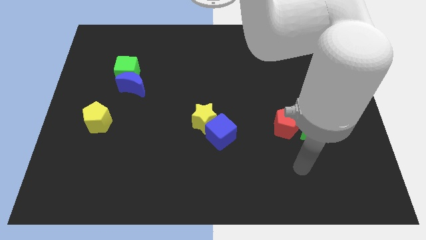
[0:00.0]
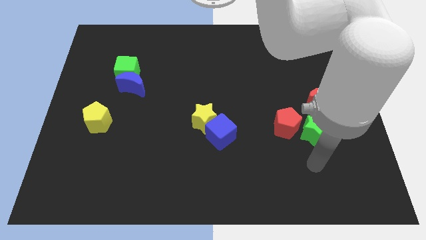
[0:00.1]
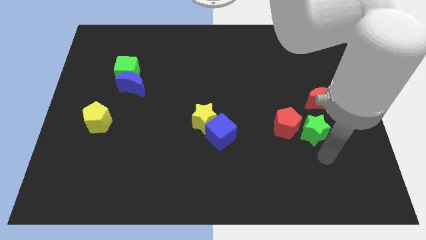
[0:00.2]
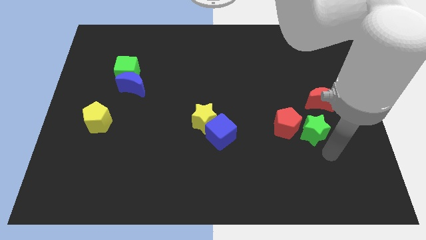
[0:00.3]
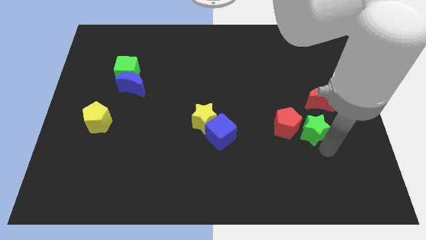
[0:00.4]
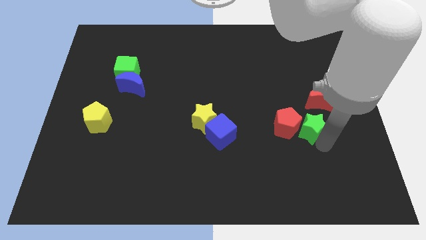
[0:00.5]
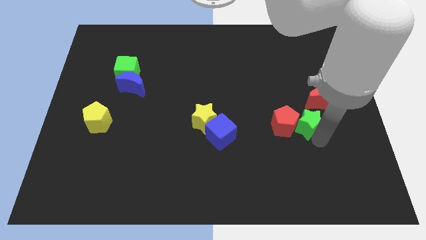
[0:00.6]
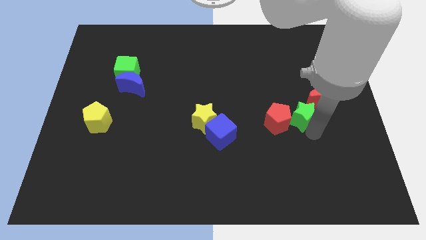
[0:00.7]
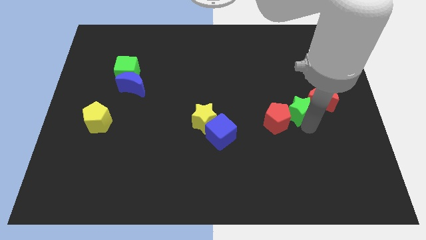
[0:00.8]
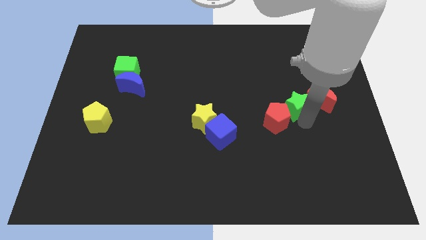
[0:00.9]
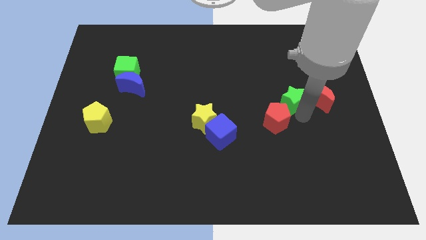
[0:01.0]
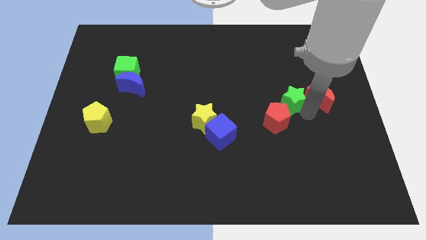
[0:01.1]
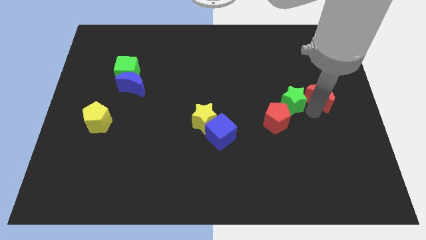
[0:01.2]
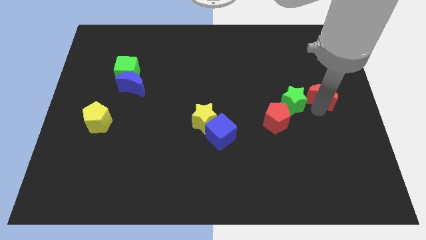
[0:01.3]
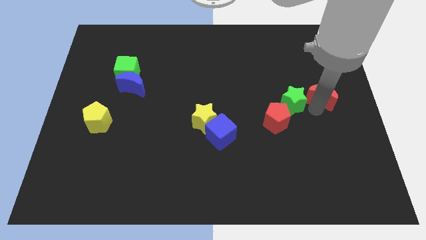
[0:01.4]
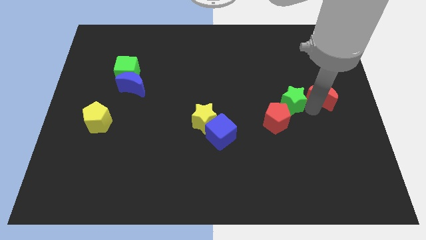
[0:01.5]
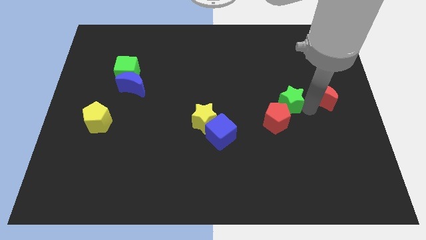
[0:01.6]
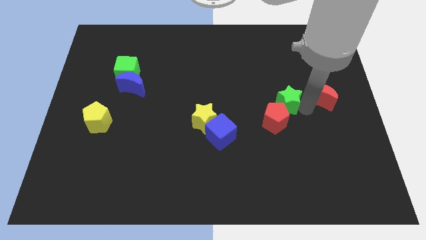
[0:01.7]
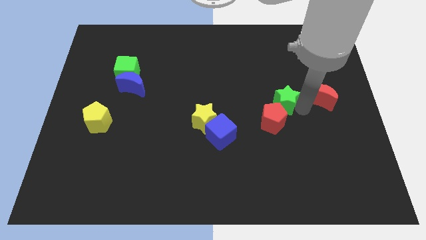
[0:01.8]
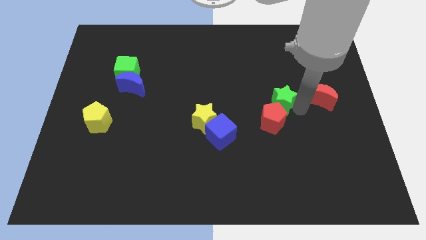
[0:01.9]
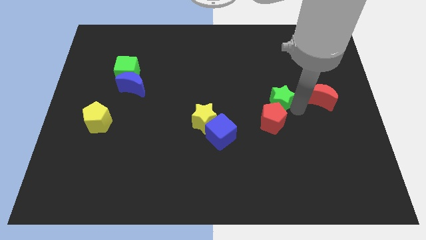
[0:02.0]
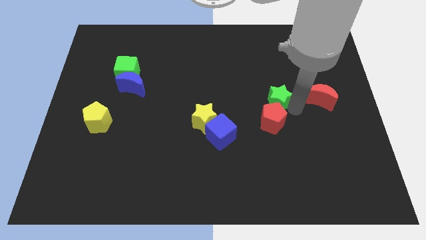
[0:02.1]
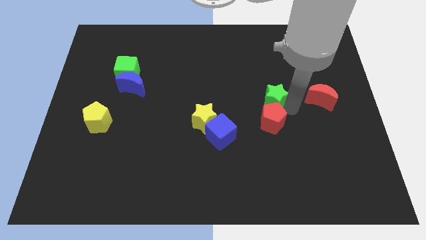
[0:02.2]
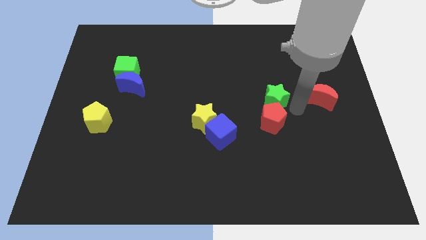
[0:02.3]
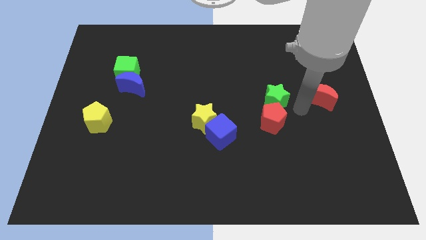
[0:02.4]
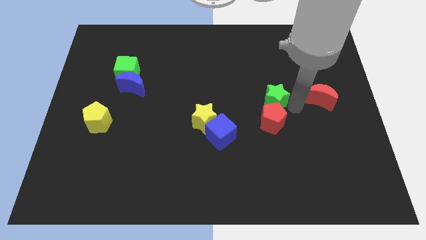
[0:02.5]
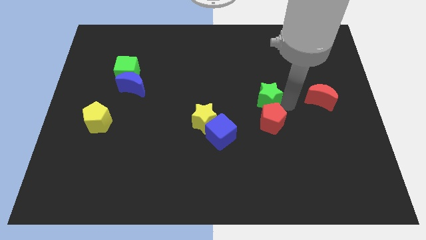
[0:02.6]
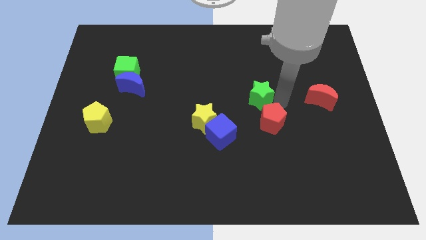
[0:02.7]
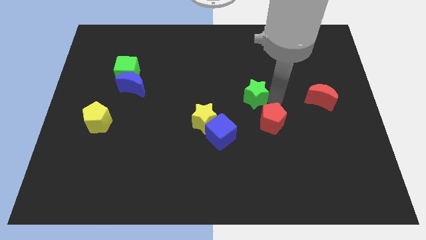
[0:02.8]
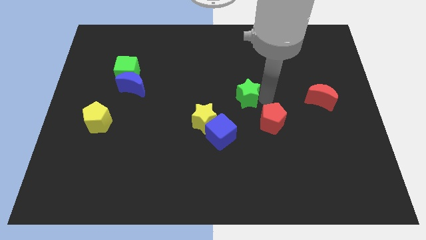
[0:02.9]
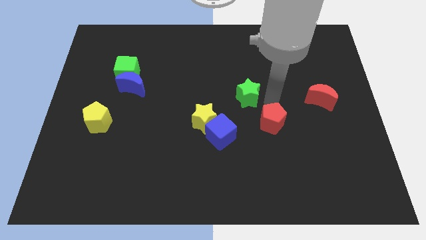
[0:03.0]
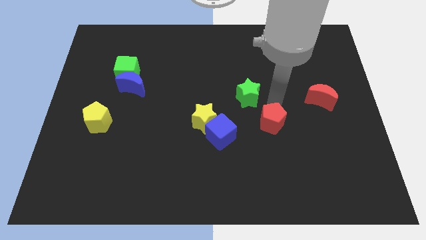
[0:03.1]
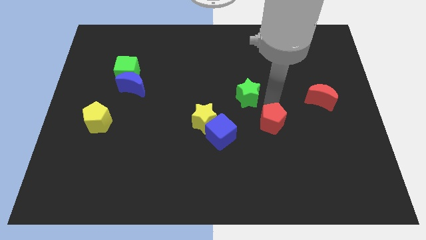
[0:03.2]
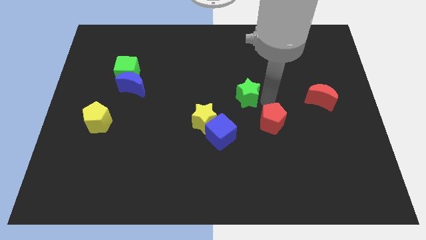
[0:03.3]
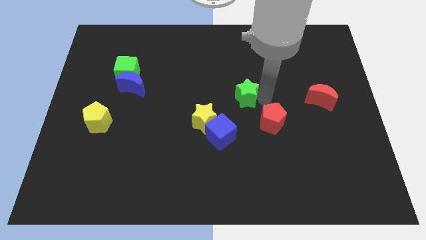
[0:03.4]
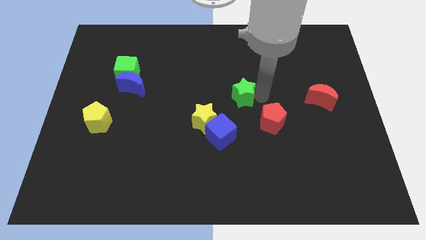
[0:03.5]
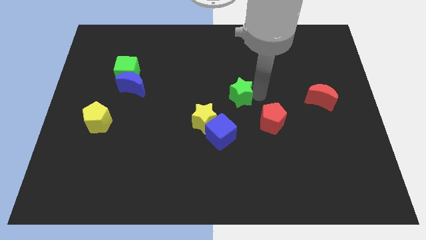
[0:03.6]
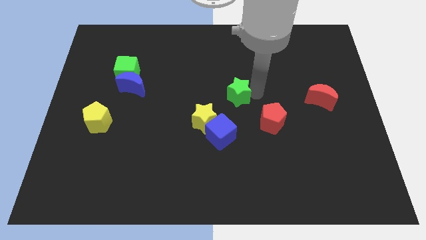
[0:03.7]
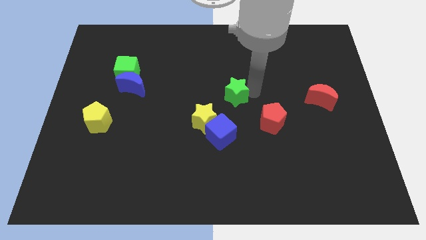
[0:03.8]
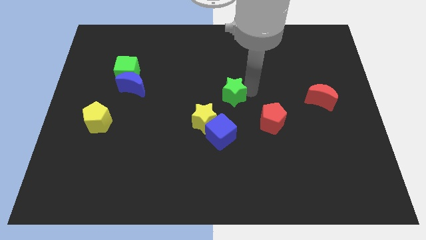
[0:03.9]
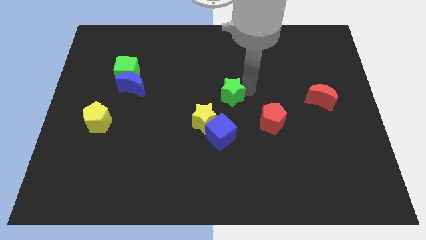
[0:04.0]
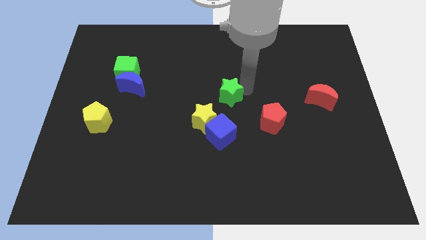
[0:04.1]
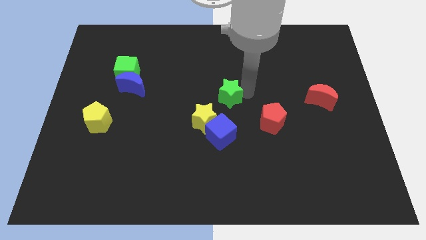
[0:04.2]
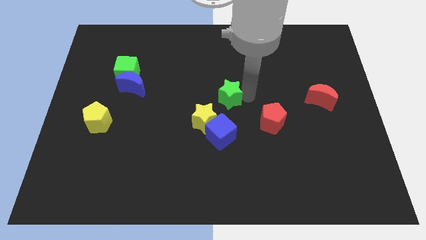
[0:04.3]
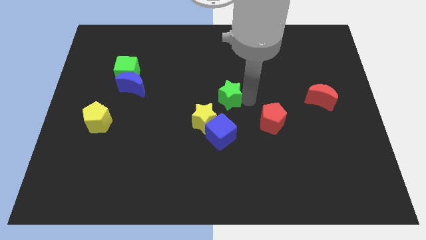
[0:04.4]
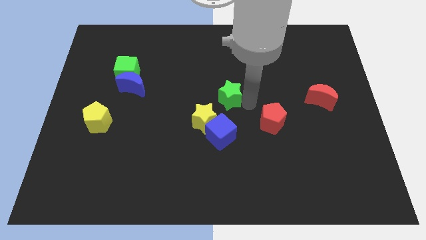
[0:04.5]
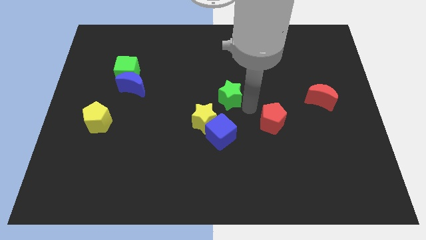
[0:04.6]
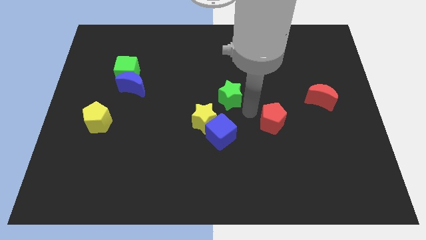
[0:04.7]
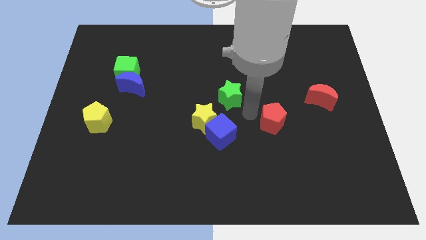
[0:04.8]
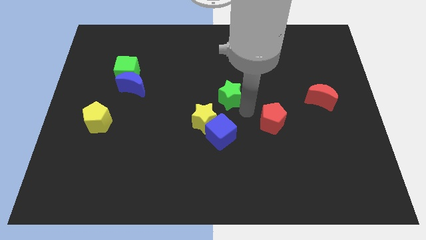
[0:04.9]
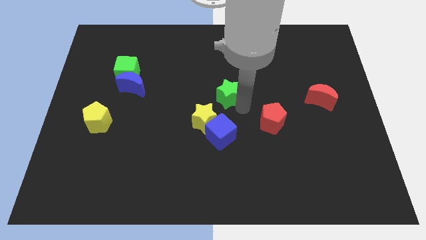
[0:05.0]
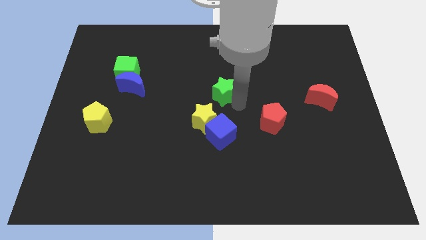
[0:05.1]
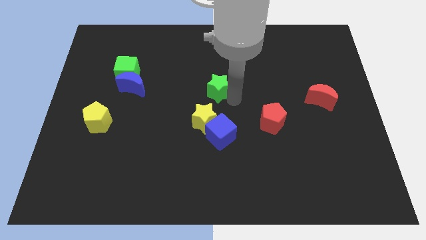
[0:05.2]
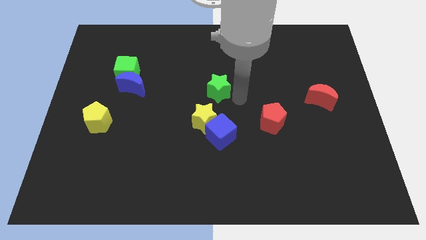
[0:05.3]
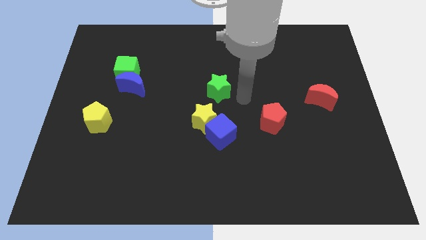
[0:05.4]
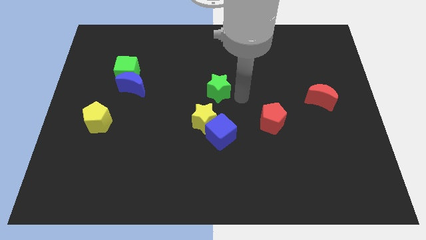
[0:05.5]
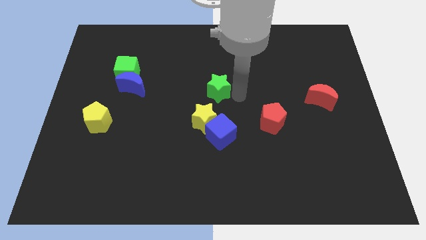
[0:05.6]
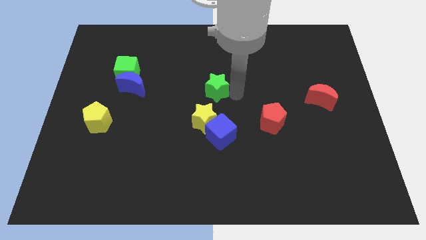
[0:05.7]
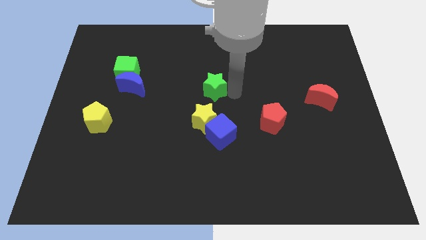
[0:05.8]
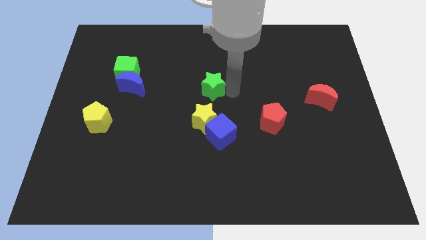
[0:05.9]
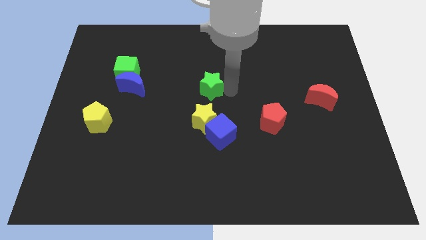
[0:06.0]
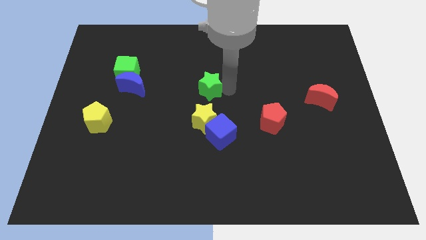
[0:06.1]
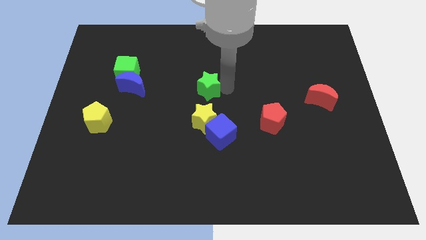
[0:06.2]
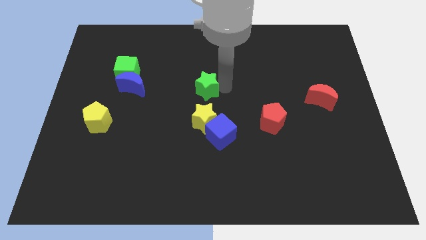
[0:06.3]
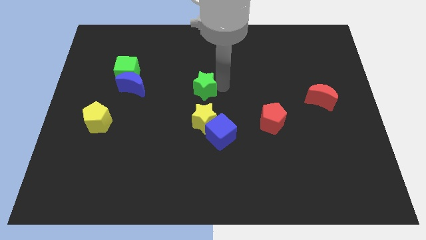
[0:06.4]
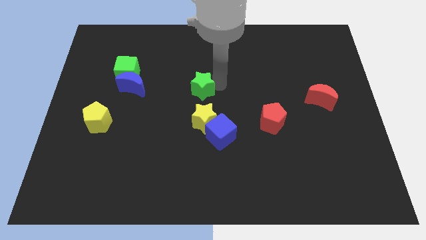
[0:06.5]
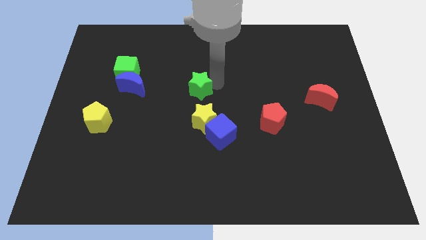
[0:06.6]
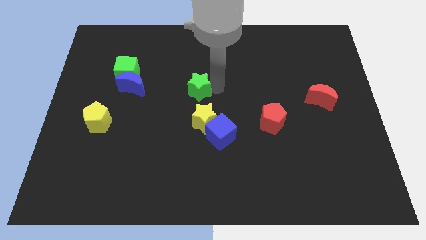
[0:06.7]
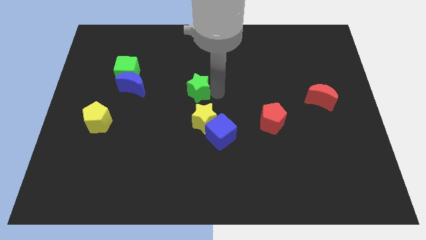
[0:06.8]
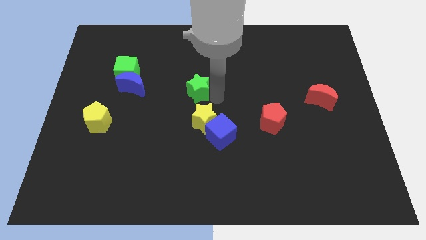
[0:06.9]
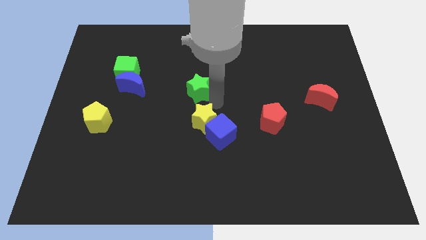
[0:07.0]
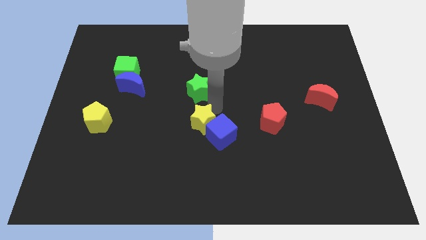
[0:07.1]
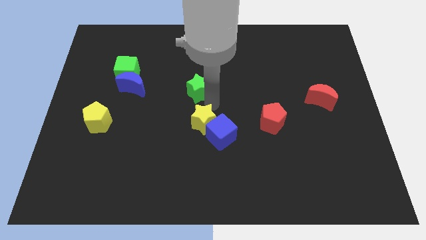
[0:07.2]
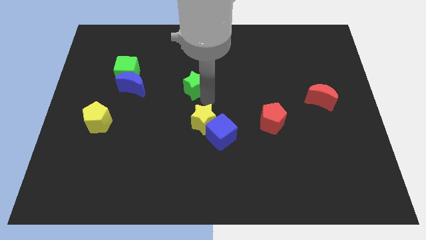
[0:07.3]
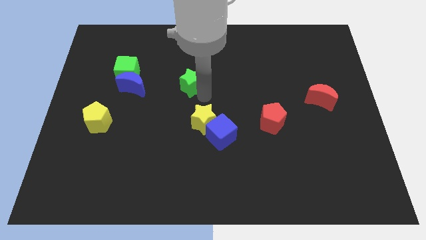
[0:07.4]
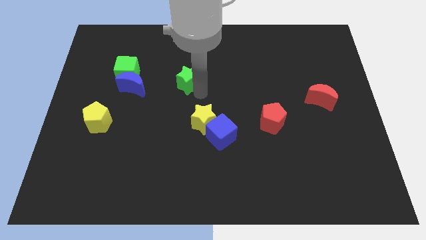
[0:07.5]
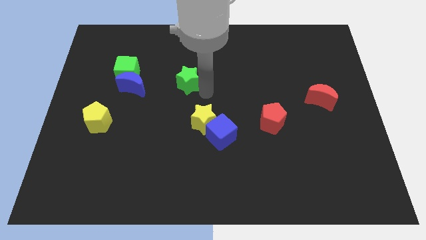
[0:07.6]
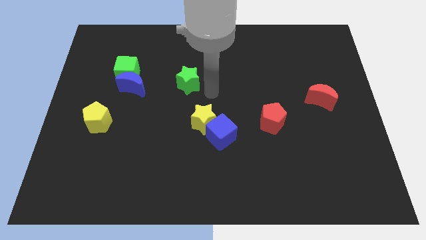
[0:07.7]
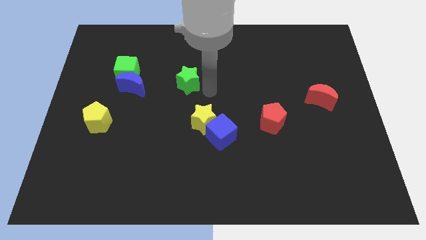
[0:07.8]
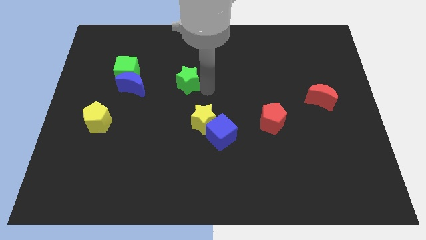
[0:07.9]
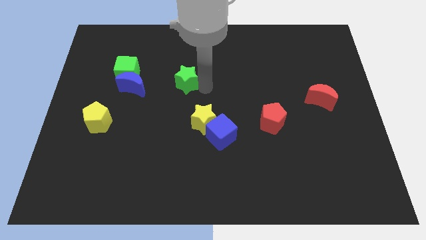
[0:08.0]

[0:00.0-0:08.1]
push the green star to the right side of the green cube
